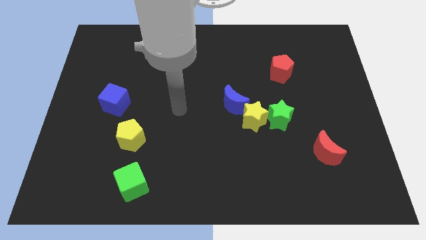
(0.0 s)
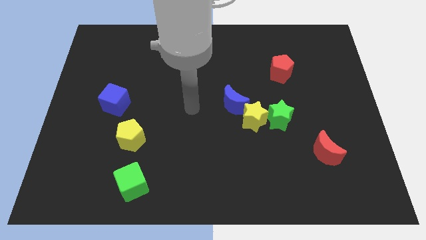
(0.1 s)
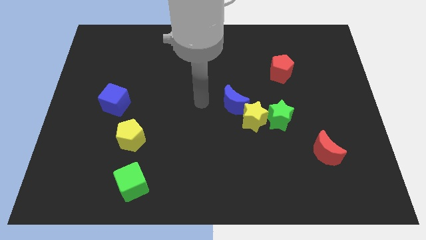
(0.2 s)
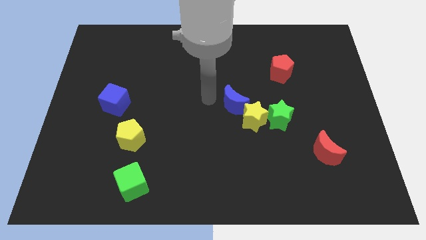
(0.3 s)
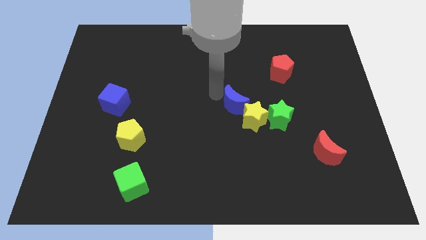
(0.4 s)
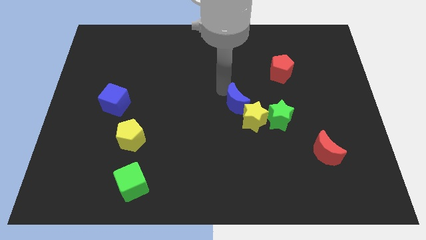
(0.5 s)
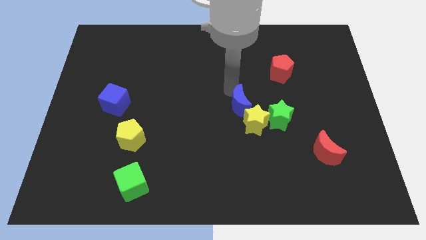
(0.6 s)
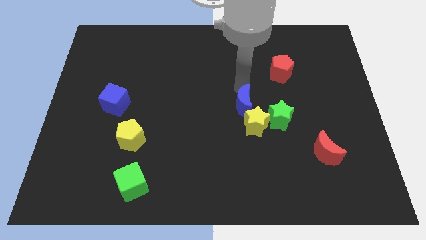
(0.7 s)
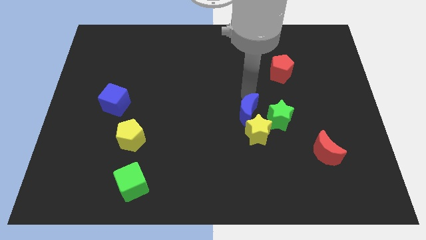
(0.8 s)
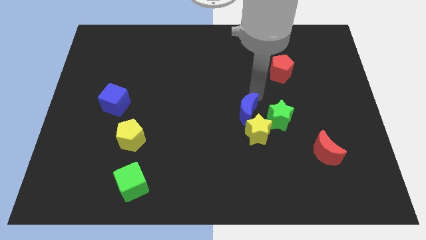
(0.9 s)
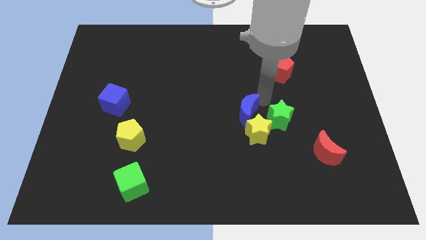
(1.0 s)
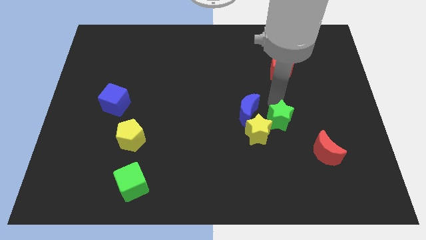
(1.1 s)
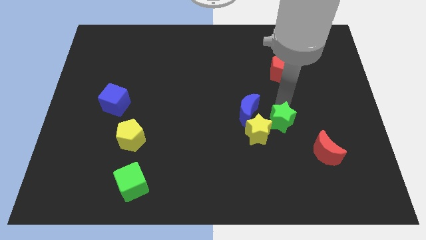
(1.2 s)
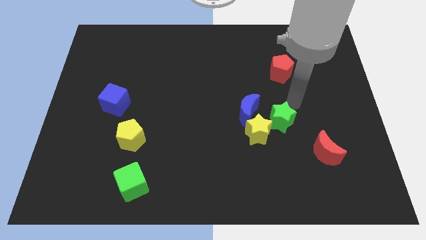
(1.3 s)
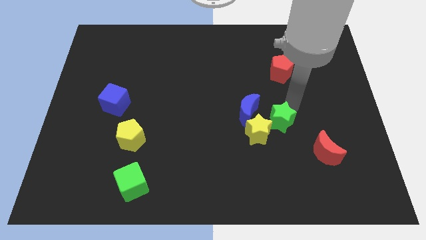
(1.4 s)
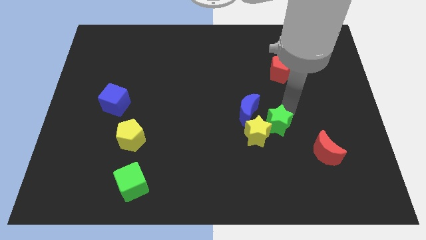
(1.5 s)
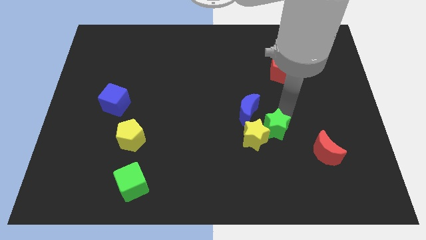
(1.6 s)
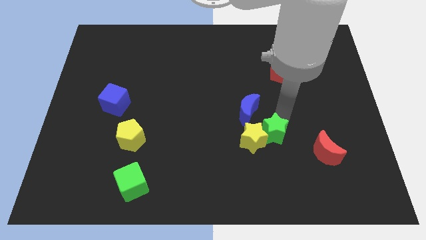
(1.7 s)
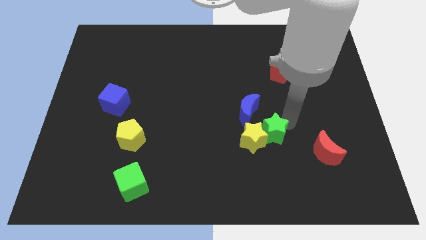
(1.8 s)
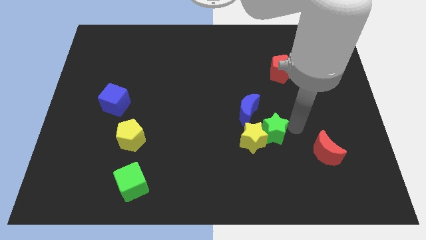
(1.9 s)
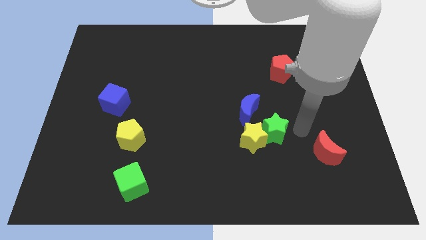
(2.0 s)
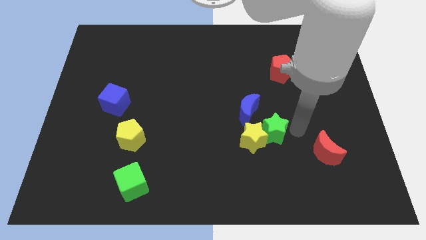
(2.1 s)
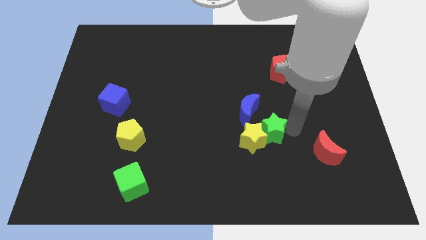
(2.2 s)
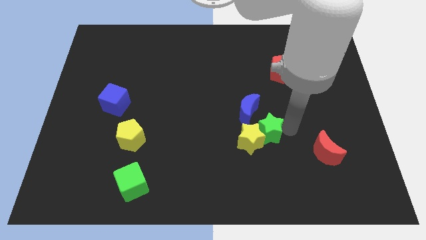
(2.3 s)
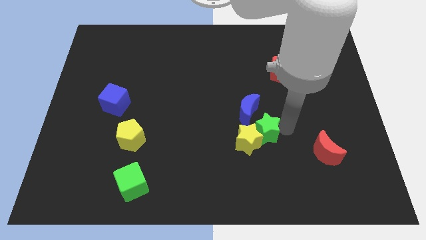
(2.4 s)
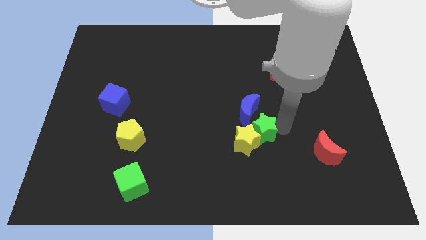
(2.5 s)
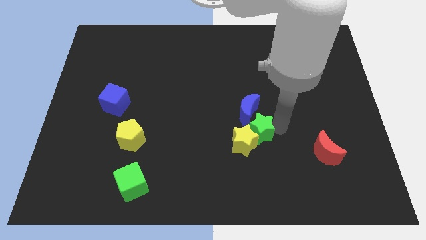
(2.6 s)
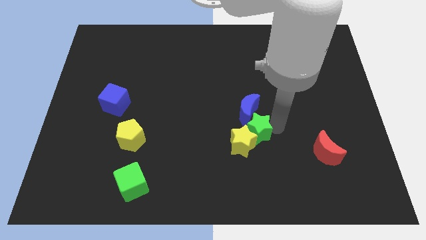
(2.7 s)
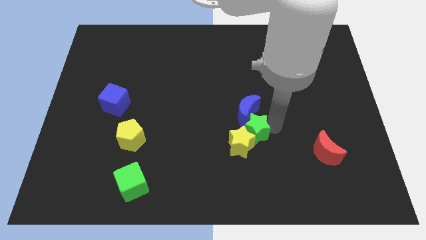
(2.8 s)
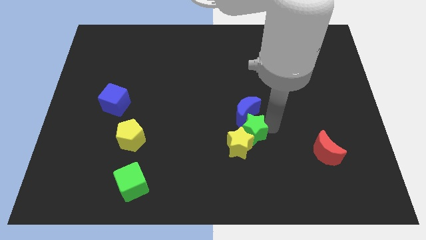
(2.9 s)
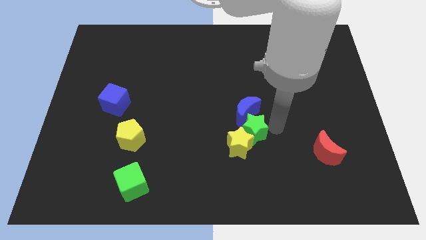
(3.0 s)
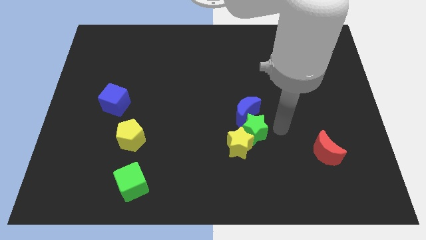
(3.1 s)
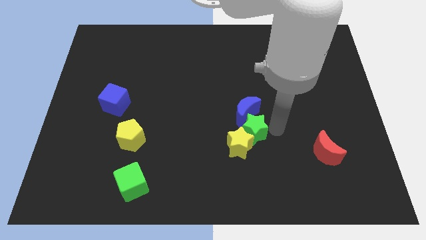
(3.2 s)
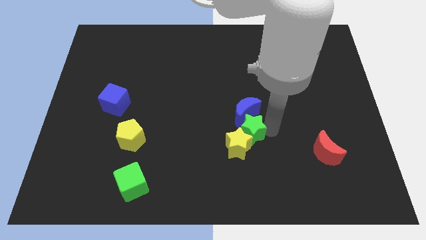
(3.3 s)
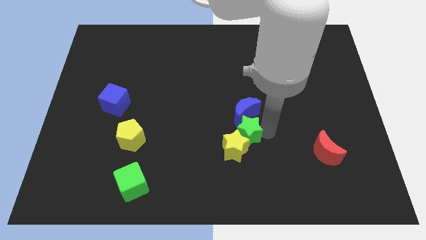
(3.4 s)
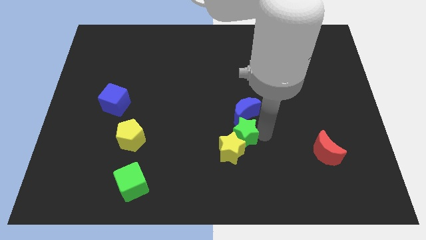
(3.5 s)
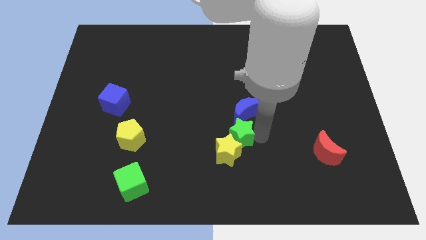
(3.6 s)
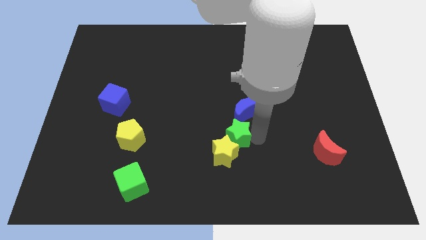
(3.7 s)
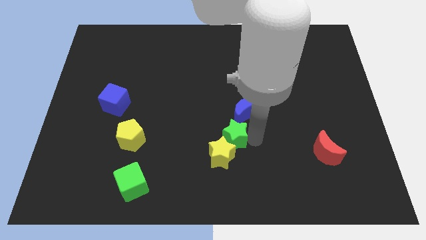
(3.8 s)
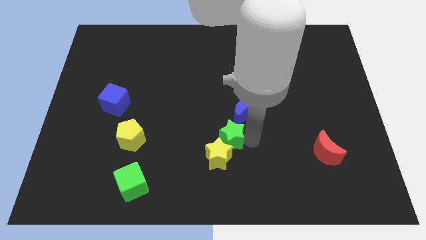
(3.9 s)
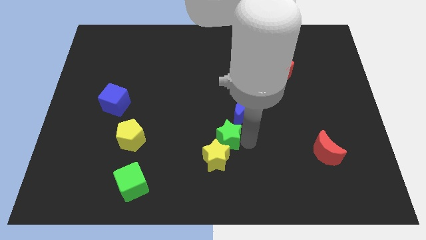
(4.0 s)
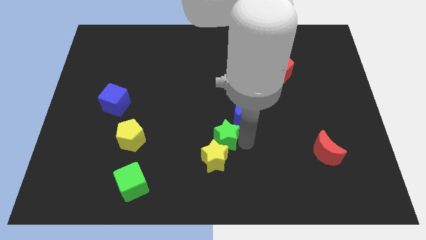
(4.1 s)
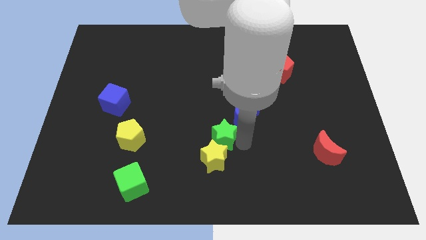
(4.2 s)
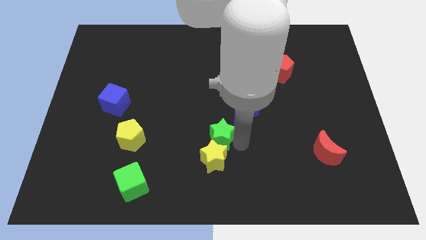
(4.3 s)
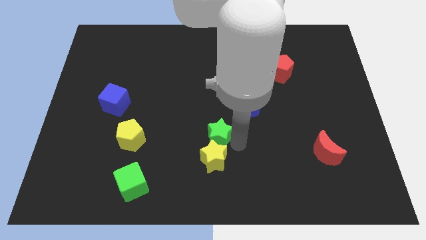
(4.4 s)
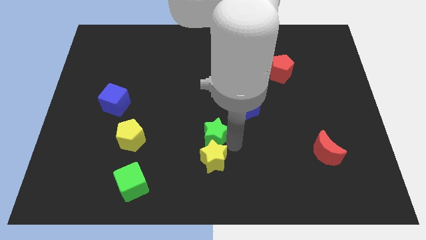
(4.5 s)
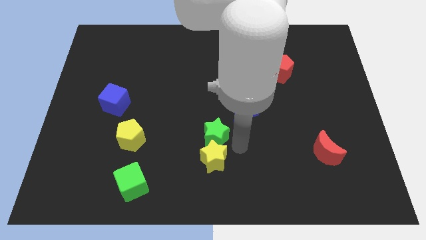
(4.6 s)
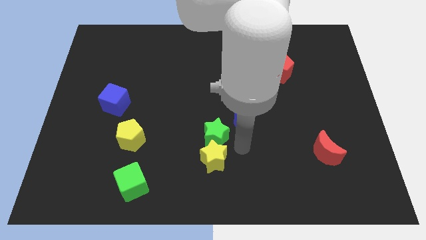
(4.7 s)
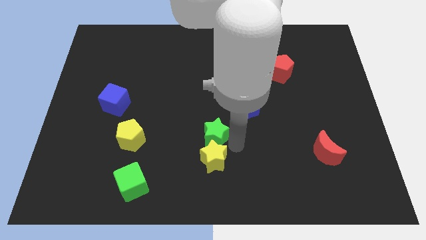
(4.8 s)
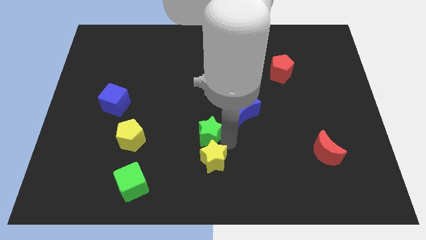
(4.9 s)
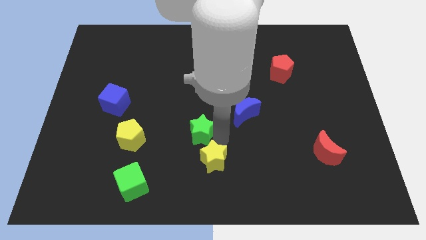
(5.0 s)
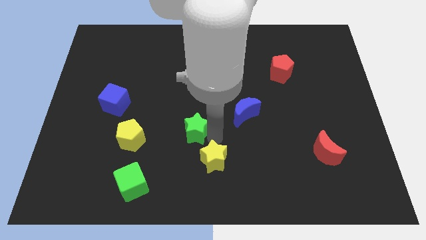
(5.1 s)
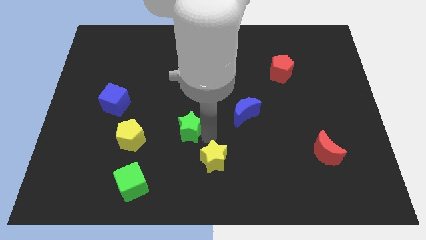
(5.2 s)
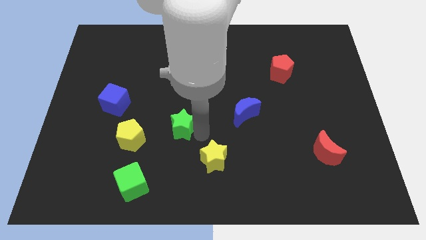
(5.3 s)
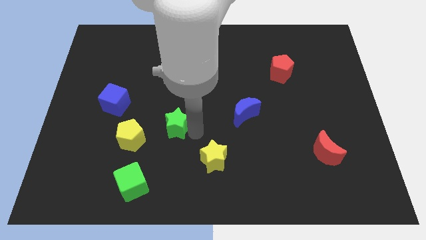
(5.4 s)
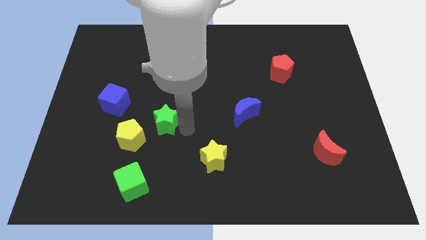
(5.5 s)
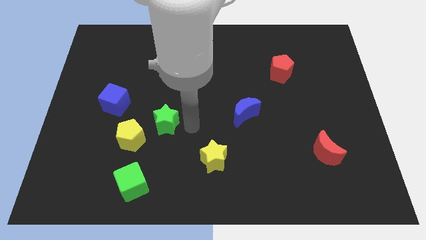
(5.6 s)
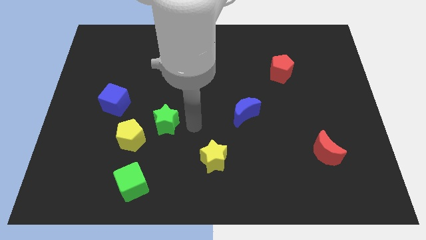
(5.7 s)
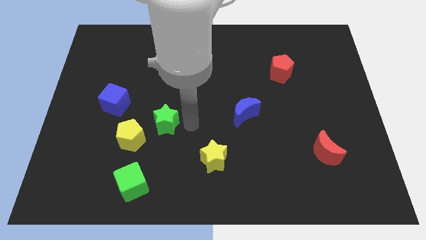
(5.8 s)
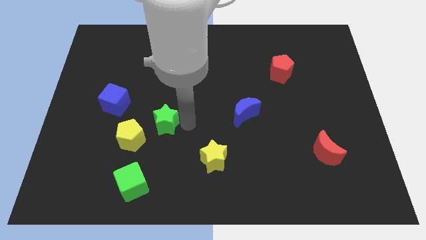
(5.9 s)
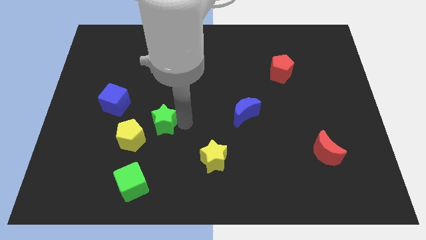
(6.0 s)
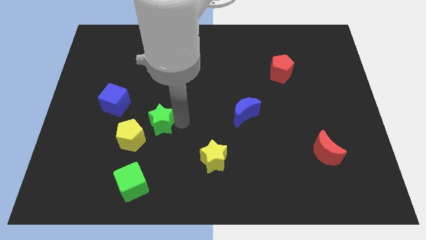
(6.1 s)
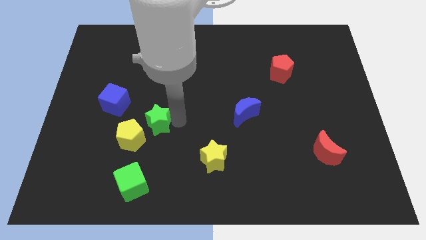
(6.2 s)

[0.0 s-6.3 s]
push the green star diagonally down and to the right of the blue cube

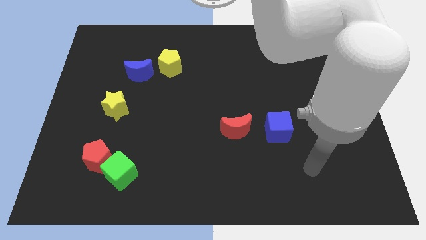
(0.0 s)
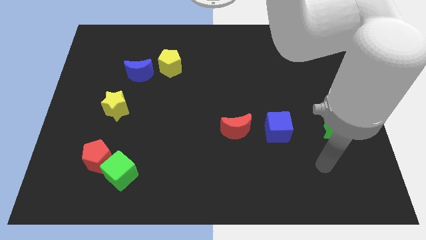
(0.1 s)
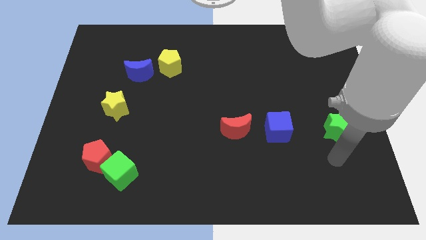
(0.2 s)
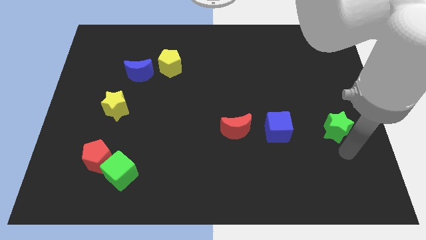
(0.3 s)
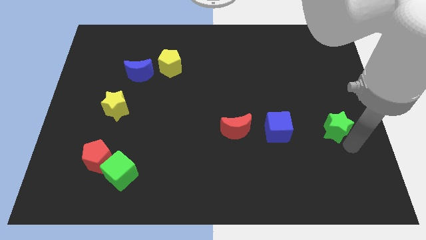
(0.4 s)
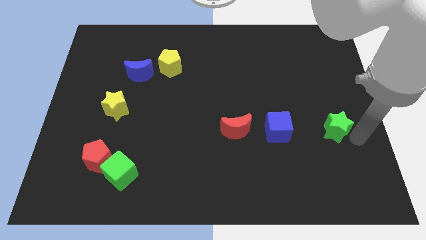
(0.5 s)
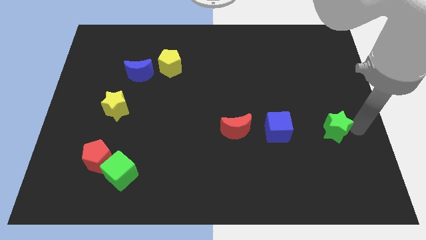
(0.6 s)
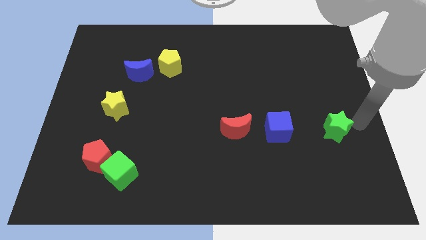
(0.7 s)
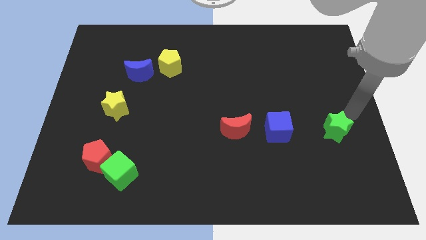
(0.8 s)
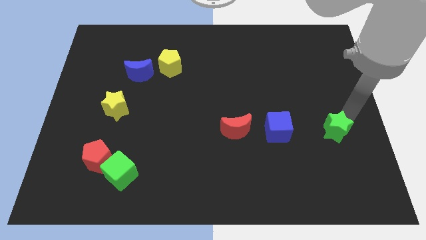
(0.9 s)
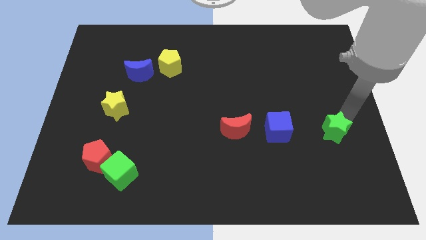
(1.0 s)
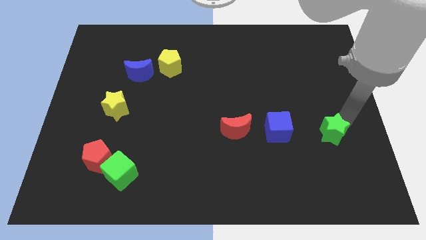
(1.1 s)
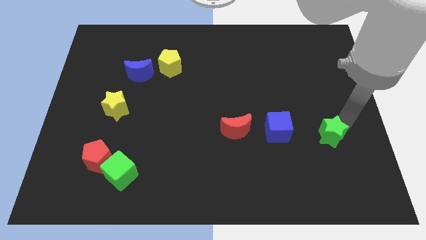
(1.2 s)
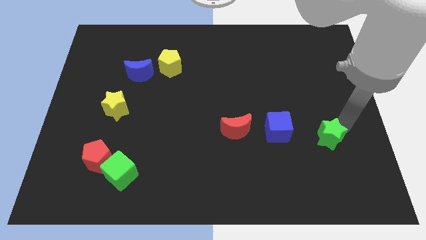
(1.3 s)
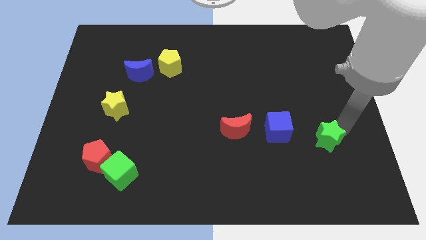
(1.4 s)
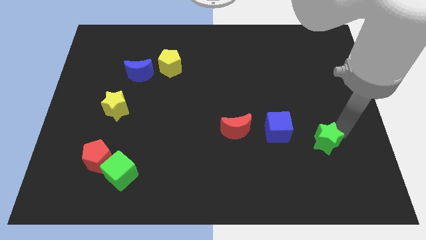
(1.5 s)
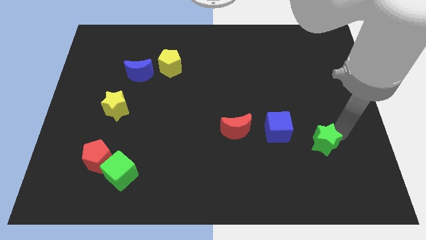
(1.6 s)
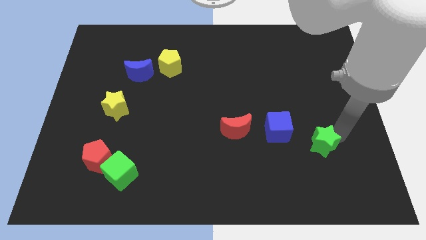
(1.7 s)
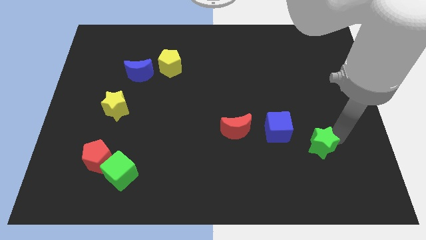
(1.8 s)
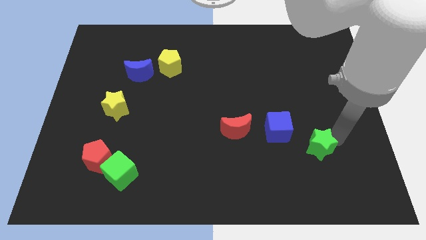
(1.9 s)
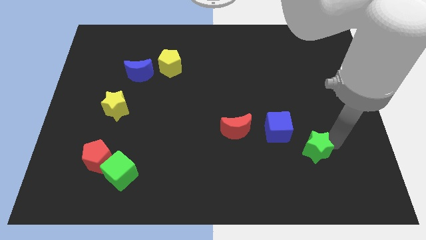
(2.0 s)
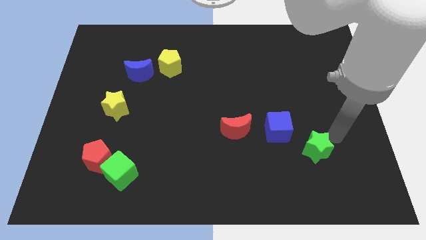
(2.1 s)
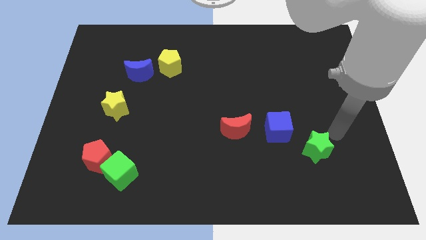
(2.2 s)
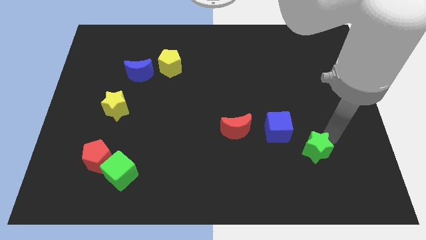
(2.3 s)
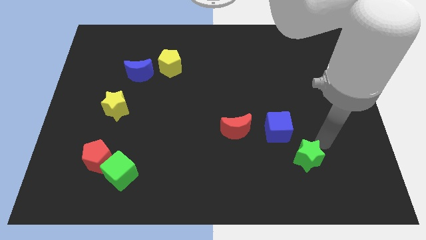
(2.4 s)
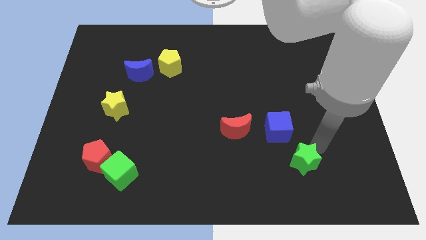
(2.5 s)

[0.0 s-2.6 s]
push the green star to the bottom of the blue cube
